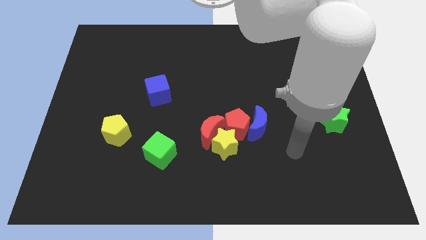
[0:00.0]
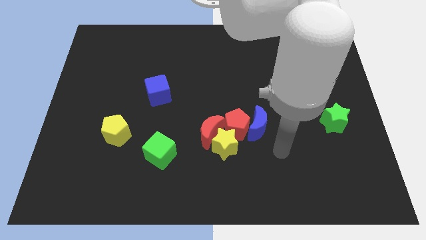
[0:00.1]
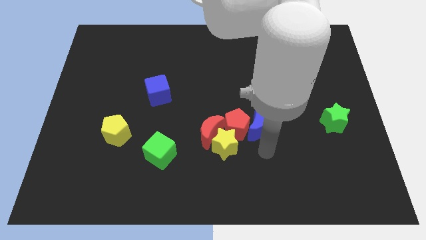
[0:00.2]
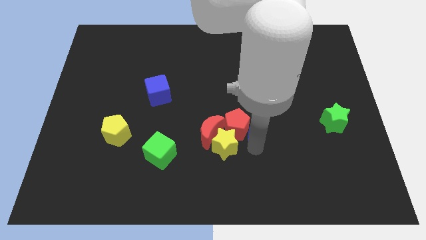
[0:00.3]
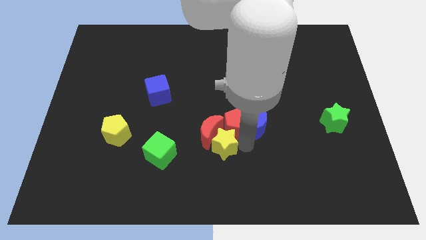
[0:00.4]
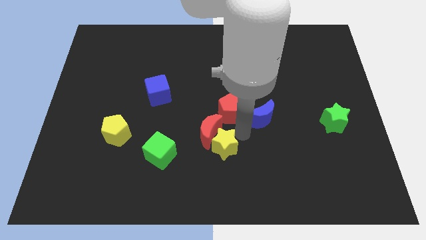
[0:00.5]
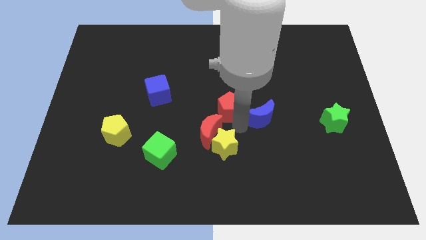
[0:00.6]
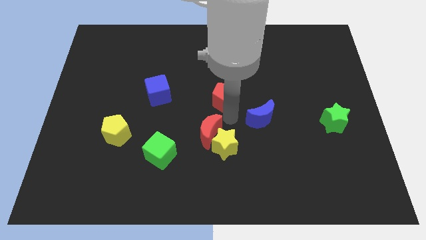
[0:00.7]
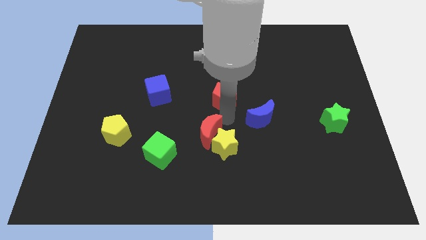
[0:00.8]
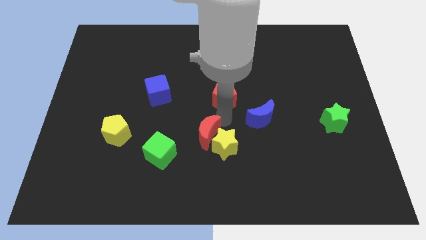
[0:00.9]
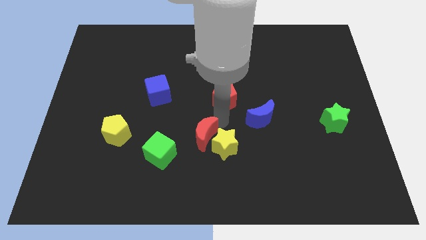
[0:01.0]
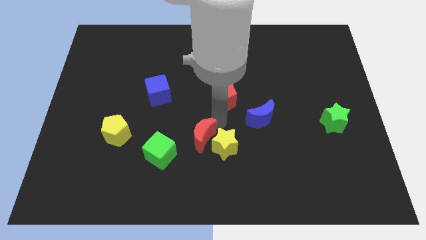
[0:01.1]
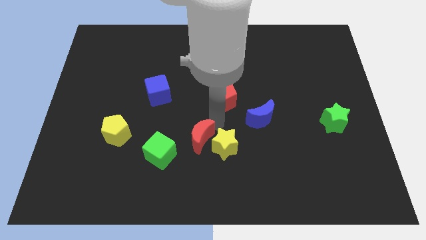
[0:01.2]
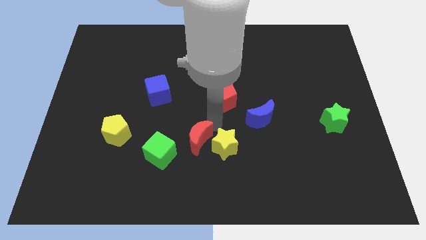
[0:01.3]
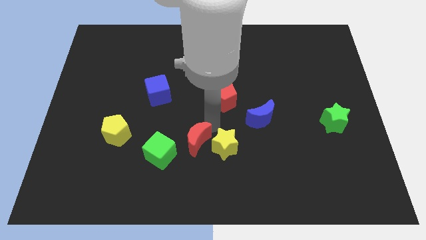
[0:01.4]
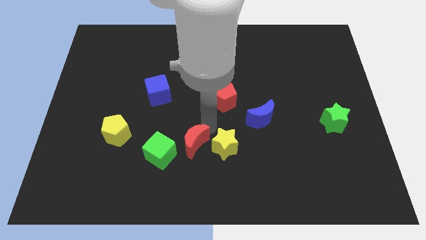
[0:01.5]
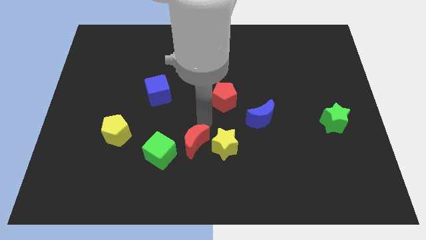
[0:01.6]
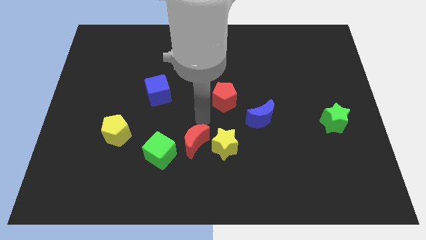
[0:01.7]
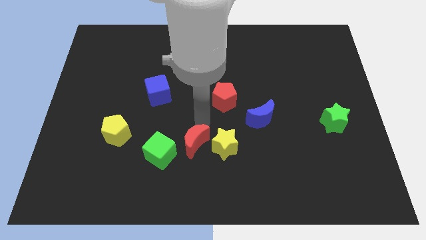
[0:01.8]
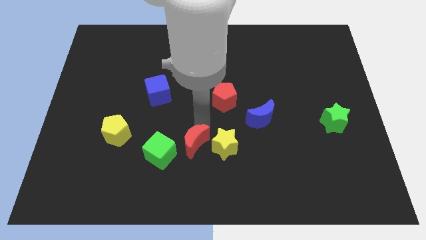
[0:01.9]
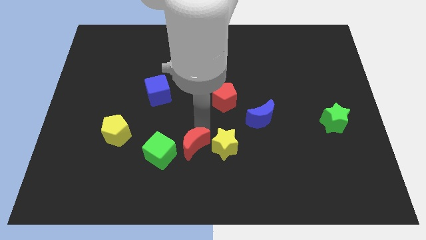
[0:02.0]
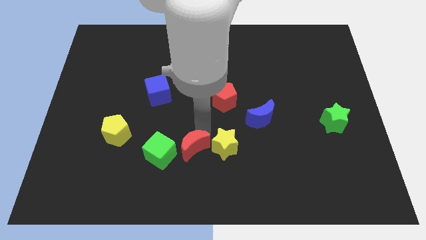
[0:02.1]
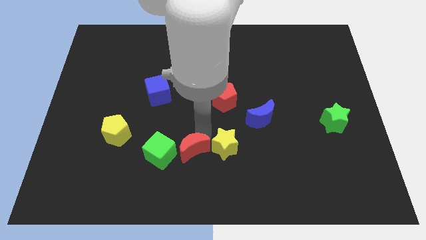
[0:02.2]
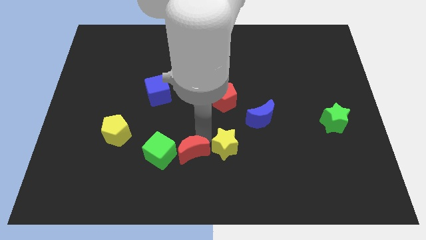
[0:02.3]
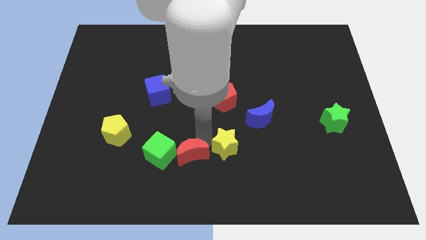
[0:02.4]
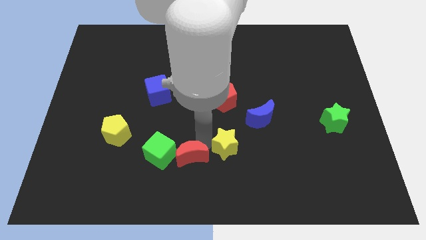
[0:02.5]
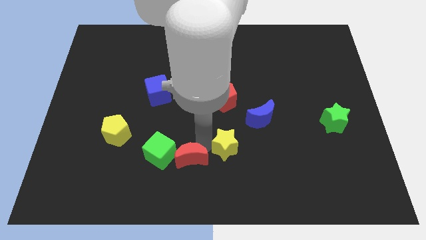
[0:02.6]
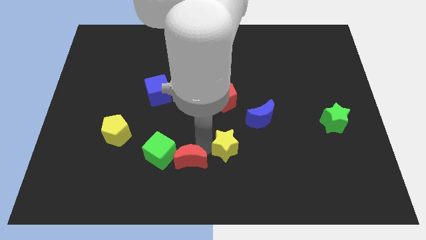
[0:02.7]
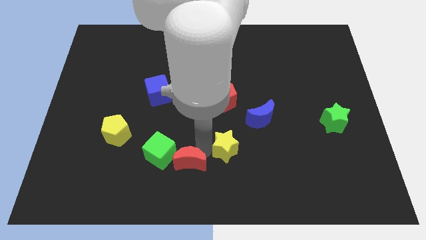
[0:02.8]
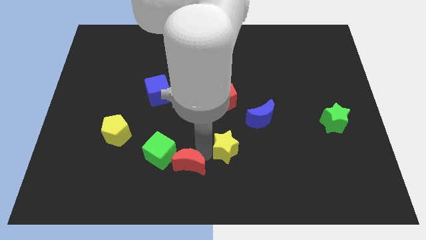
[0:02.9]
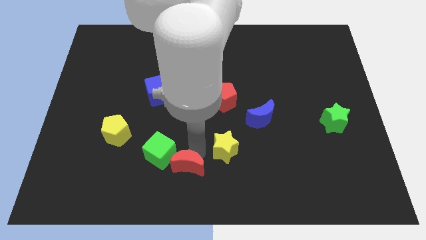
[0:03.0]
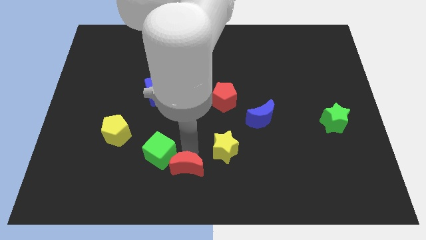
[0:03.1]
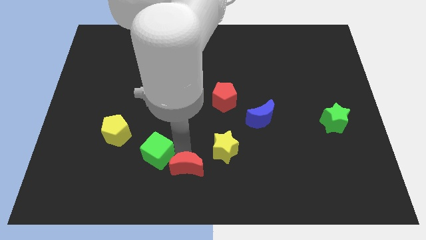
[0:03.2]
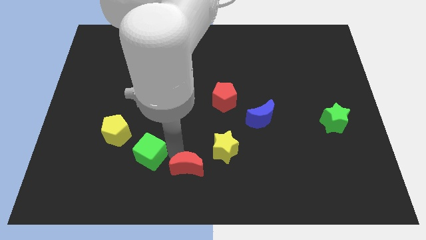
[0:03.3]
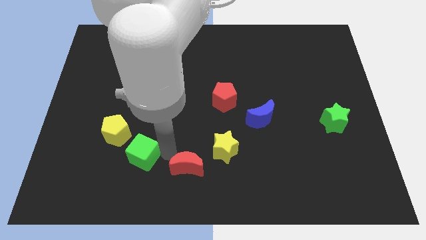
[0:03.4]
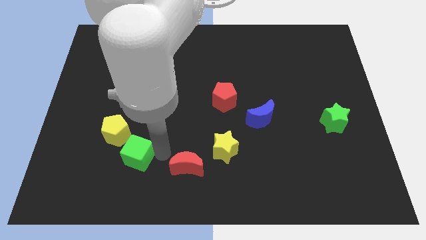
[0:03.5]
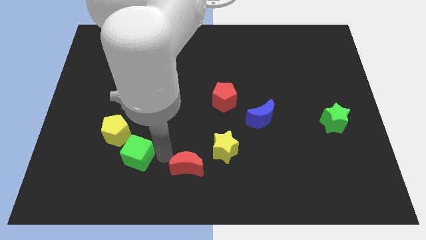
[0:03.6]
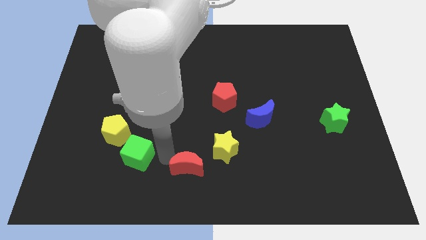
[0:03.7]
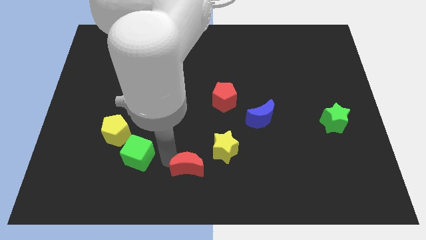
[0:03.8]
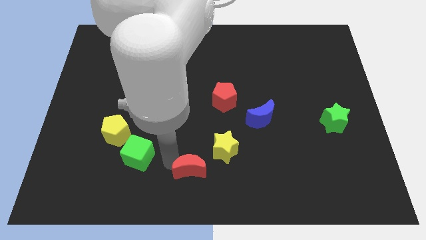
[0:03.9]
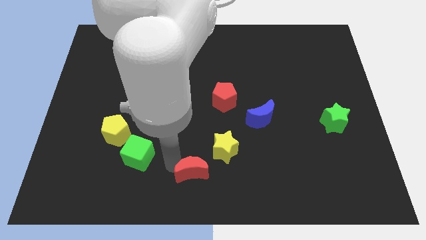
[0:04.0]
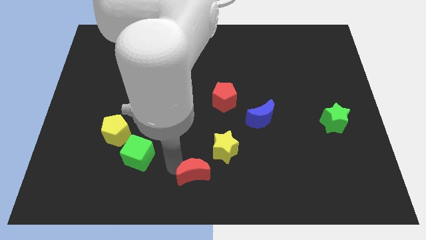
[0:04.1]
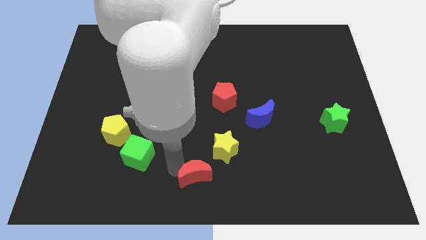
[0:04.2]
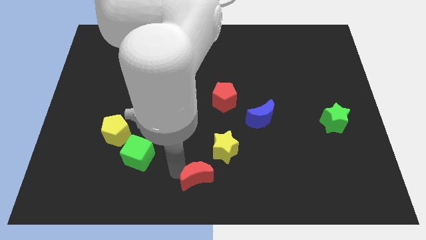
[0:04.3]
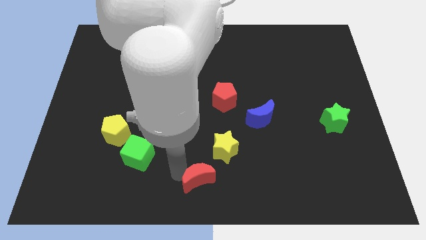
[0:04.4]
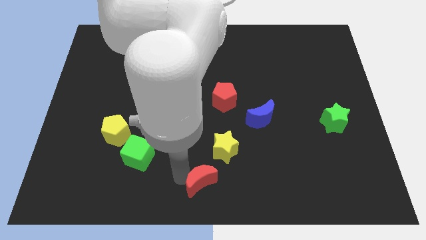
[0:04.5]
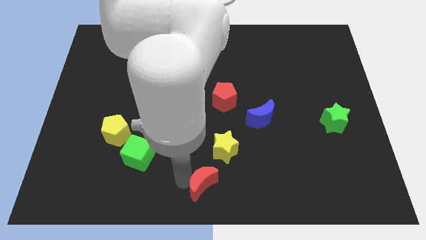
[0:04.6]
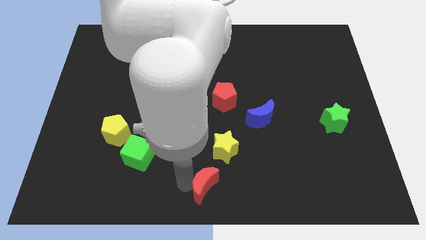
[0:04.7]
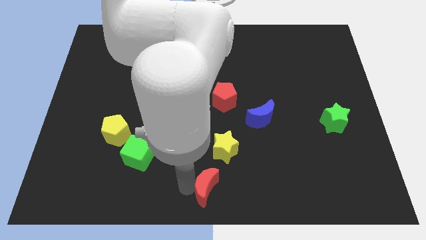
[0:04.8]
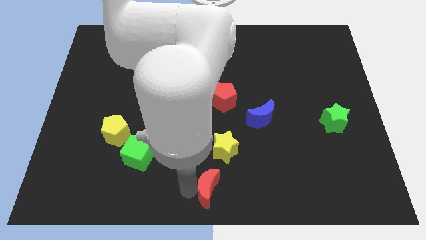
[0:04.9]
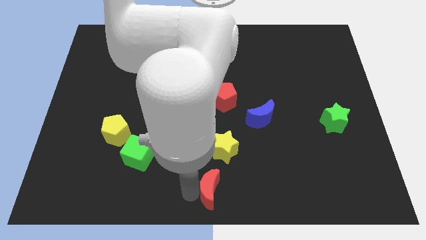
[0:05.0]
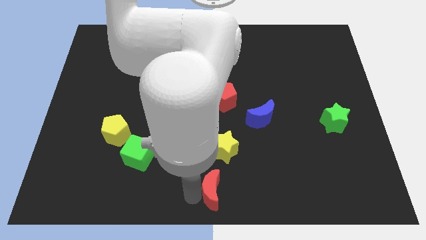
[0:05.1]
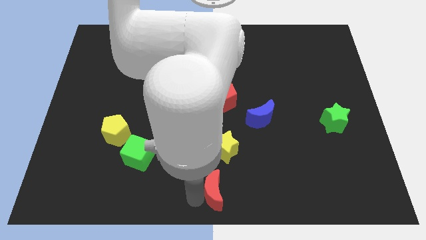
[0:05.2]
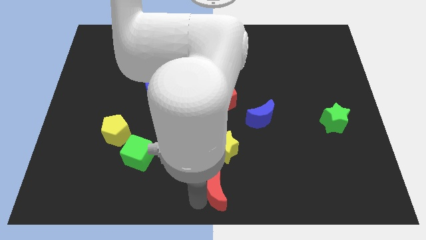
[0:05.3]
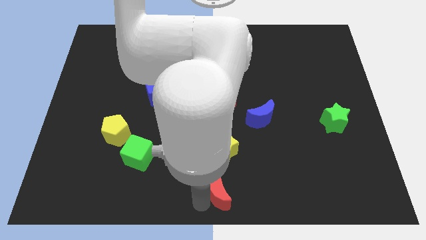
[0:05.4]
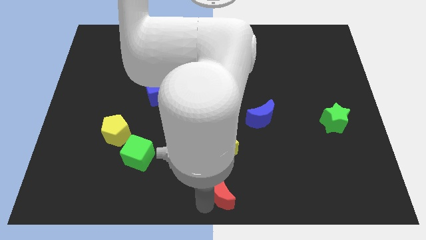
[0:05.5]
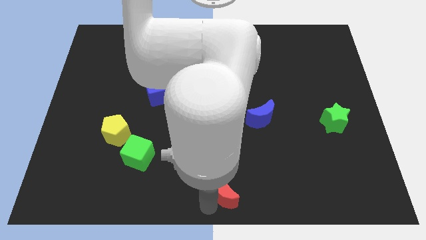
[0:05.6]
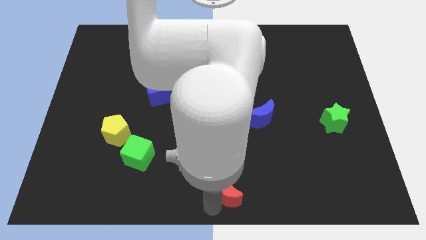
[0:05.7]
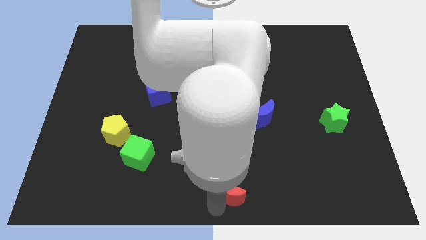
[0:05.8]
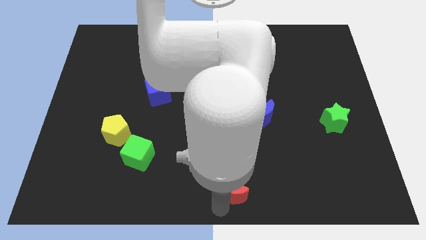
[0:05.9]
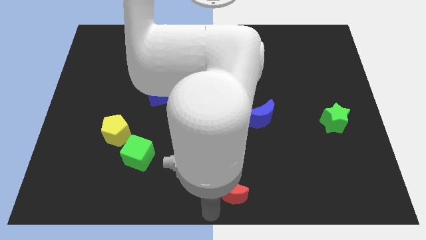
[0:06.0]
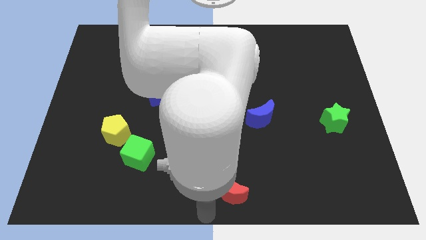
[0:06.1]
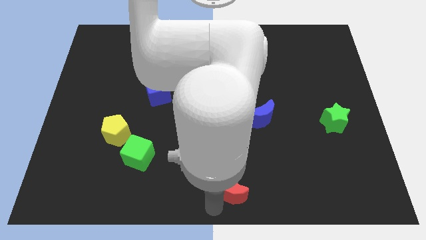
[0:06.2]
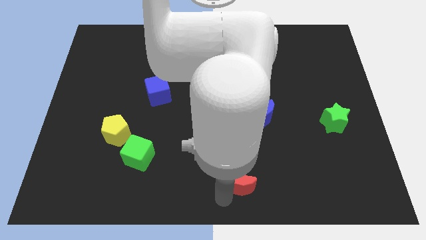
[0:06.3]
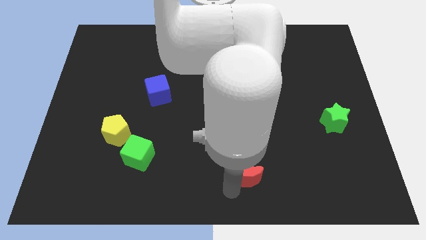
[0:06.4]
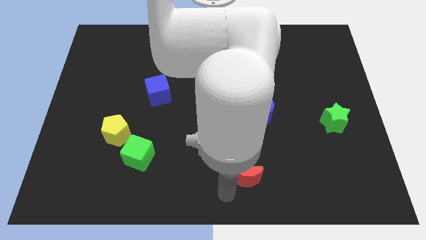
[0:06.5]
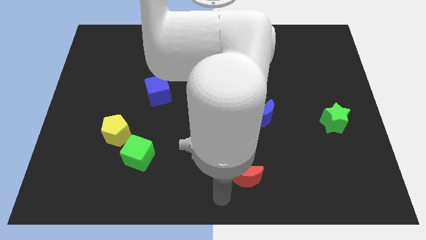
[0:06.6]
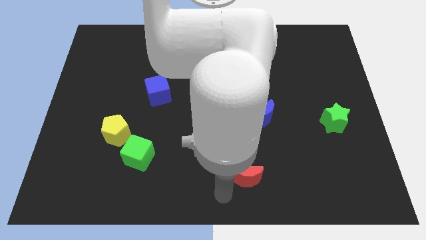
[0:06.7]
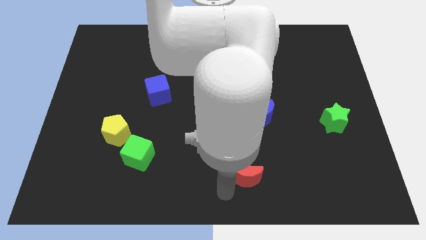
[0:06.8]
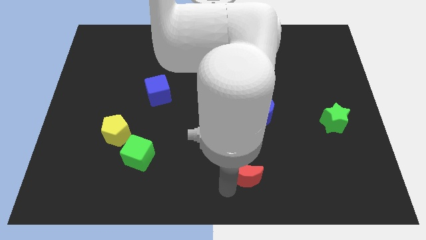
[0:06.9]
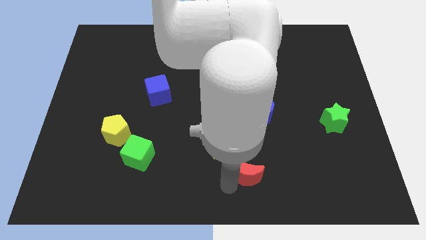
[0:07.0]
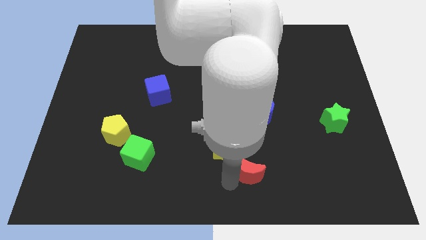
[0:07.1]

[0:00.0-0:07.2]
slide the red moon below the blue moon
